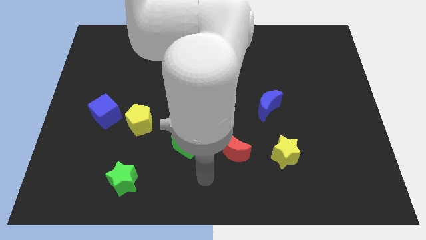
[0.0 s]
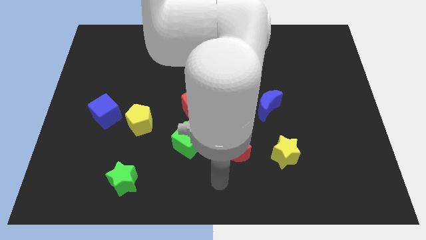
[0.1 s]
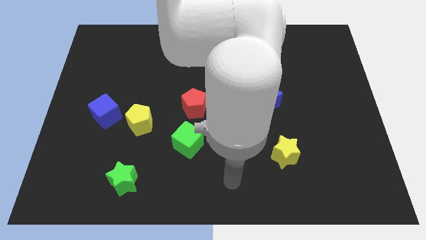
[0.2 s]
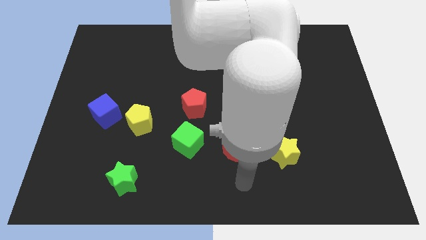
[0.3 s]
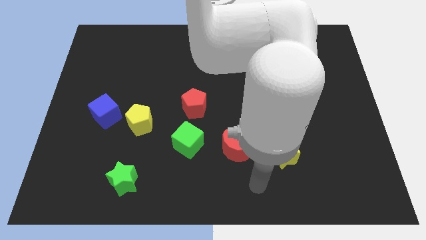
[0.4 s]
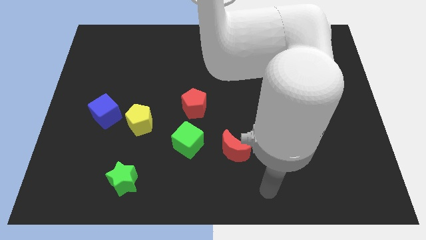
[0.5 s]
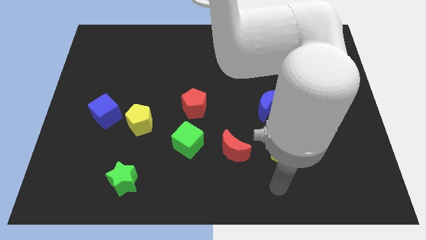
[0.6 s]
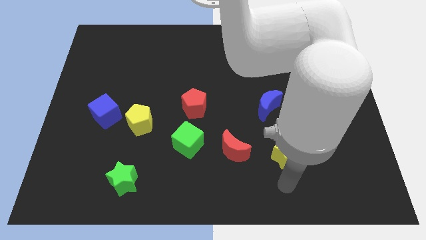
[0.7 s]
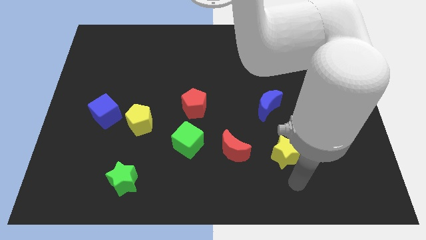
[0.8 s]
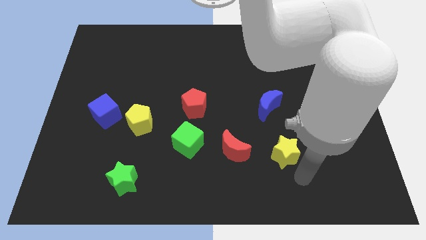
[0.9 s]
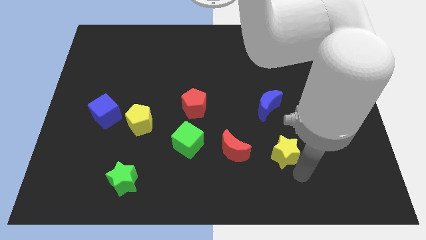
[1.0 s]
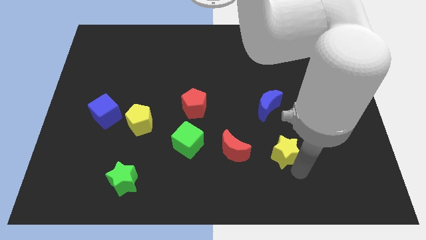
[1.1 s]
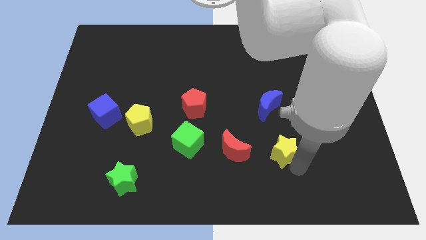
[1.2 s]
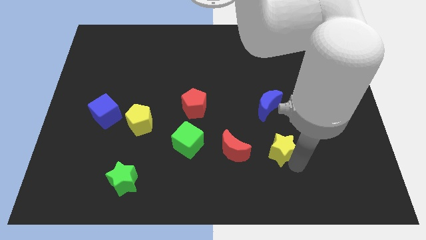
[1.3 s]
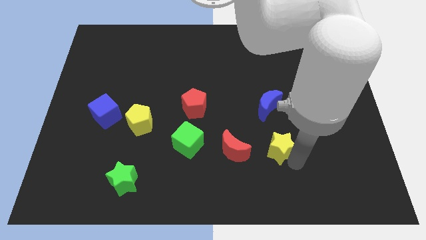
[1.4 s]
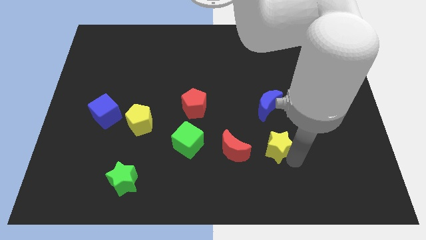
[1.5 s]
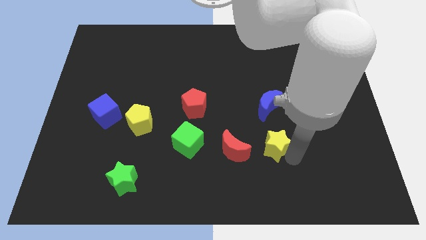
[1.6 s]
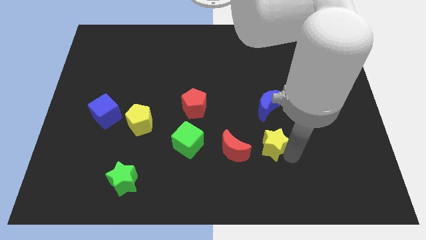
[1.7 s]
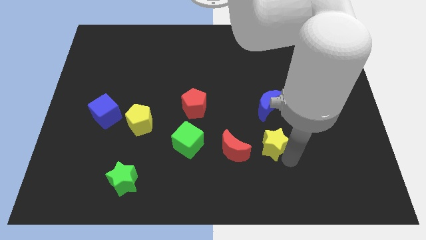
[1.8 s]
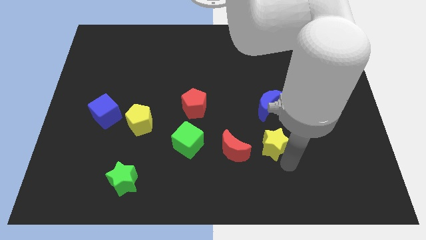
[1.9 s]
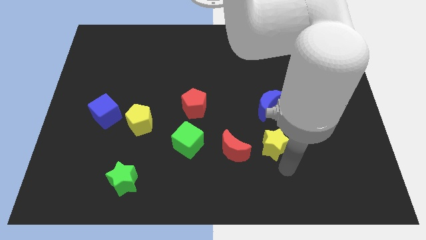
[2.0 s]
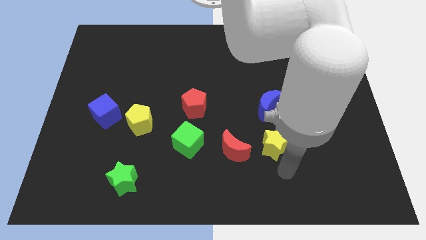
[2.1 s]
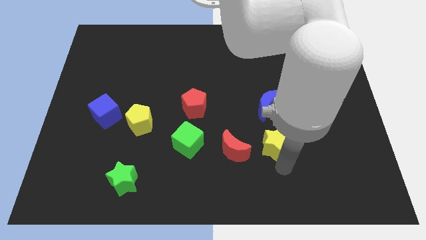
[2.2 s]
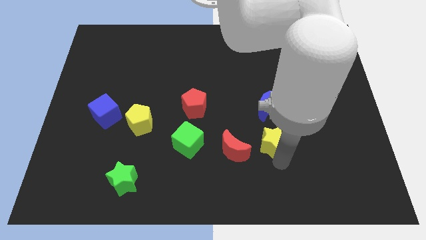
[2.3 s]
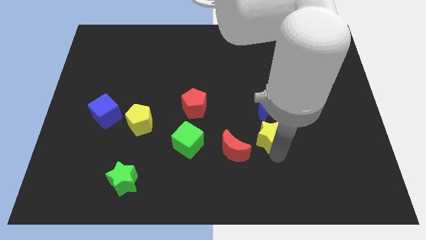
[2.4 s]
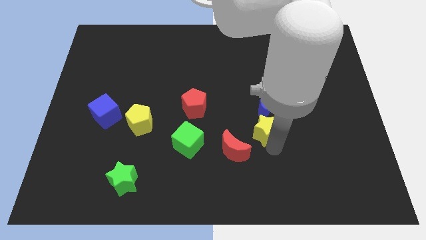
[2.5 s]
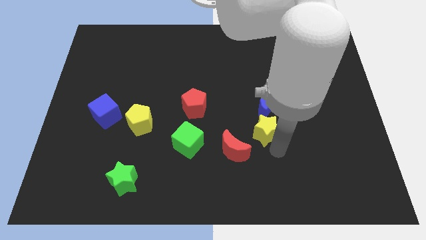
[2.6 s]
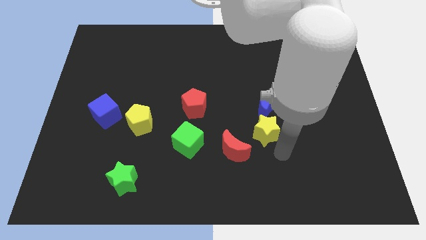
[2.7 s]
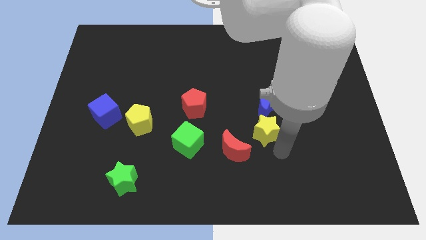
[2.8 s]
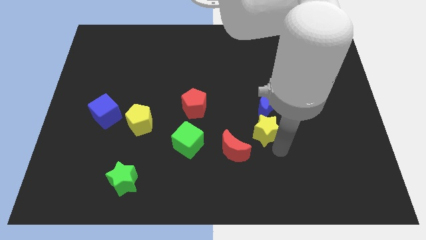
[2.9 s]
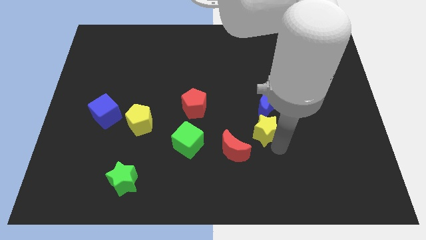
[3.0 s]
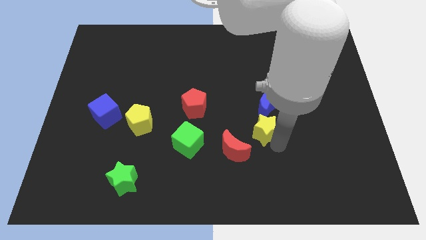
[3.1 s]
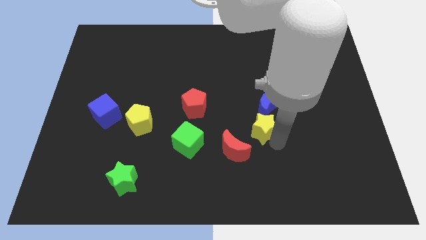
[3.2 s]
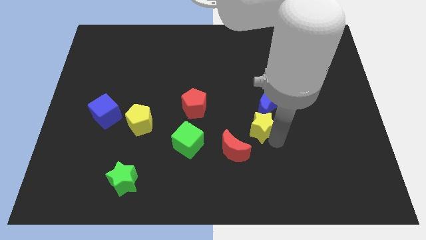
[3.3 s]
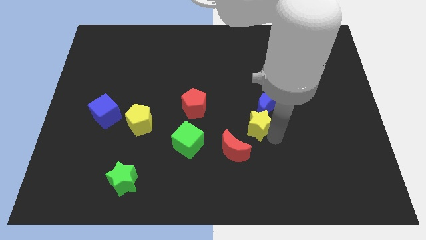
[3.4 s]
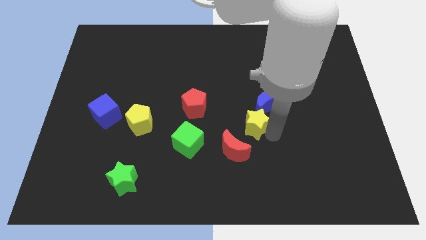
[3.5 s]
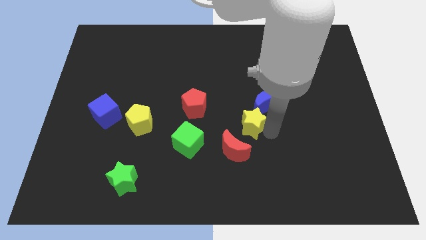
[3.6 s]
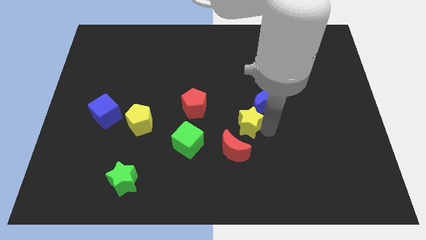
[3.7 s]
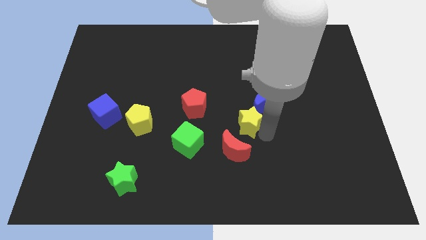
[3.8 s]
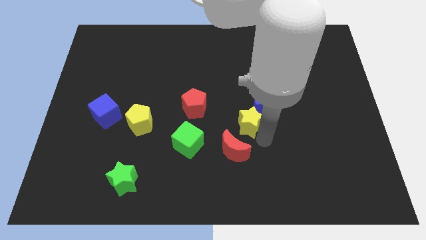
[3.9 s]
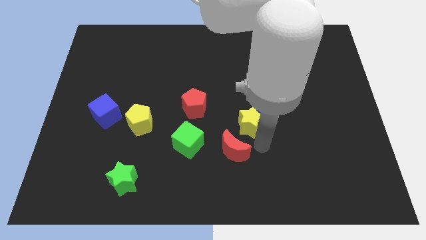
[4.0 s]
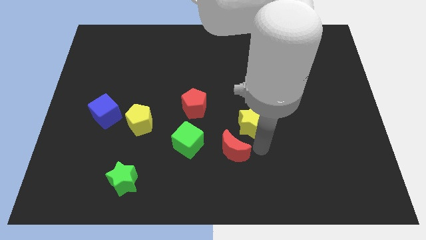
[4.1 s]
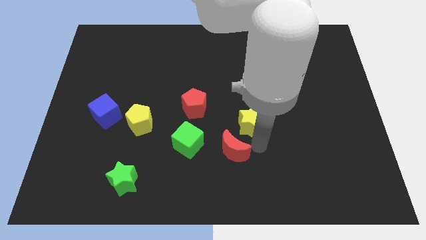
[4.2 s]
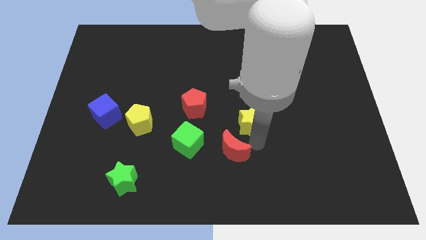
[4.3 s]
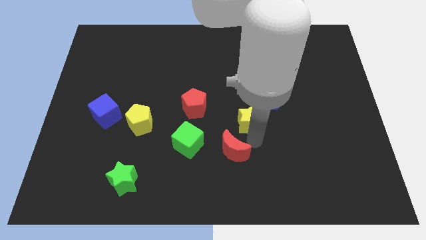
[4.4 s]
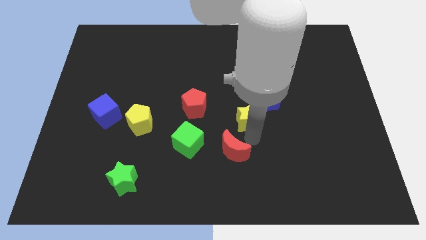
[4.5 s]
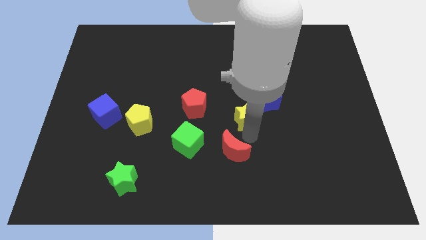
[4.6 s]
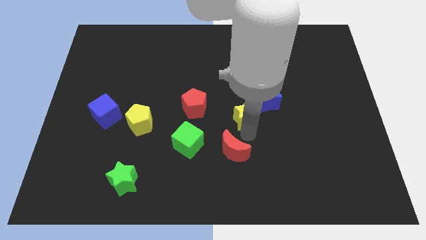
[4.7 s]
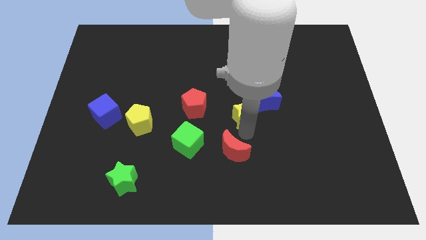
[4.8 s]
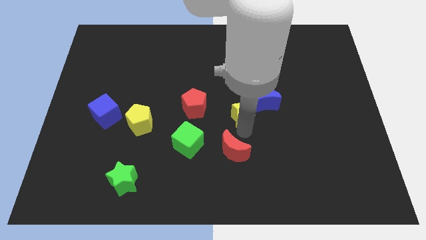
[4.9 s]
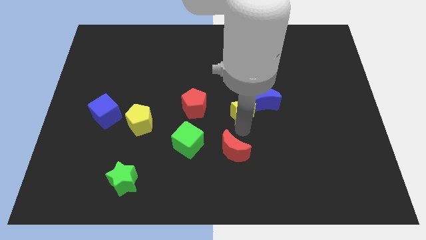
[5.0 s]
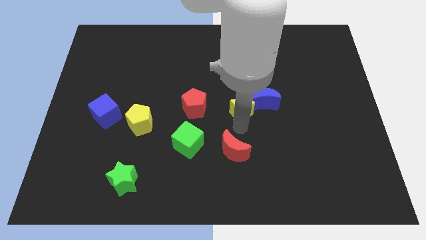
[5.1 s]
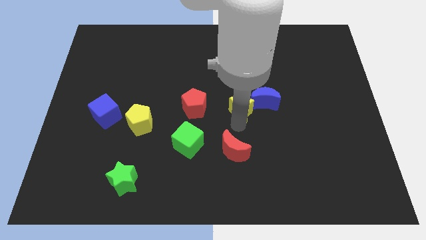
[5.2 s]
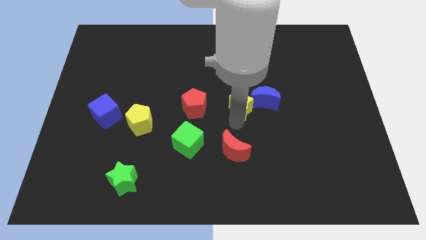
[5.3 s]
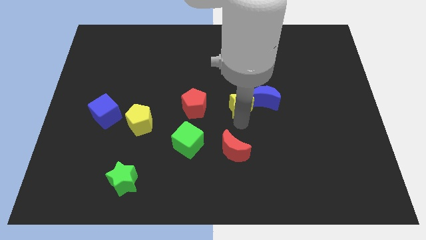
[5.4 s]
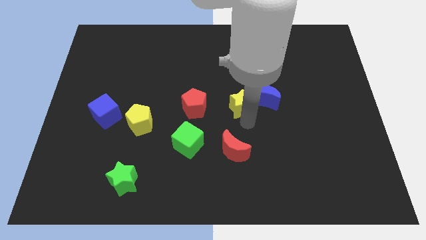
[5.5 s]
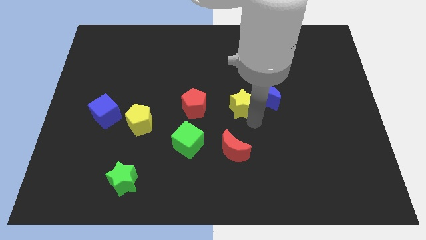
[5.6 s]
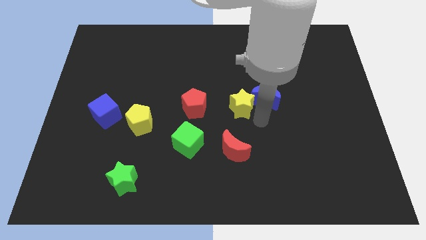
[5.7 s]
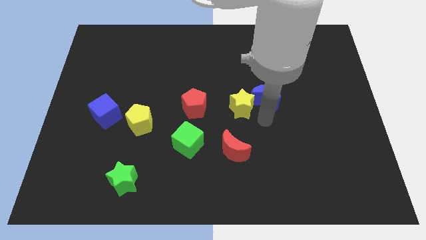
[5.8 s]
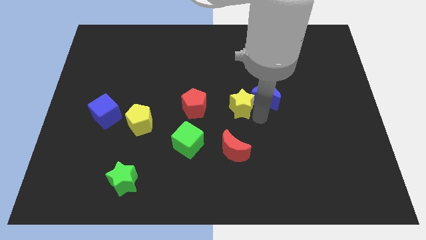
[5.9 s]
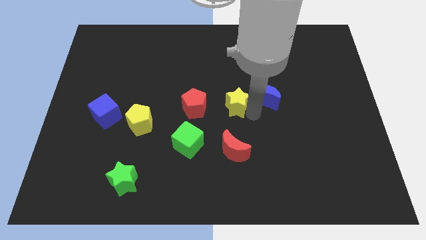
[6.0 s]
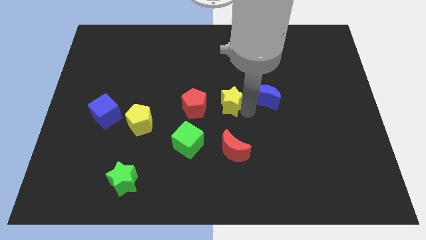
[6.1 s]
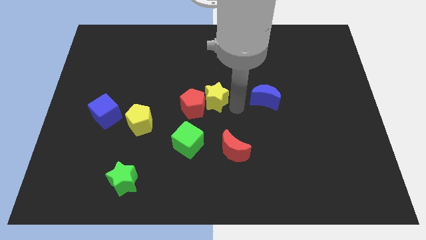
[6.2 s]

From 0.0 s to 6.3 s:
slide the yellow star upwards and left diagonally

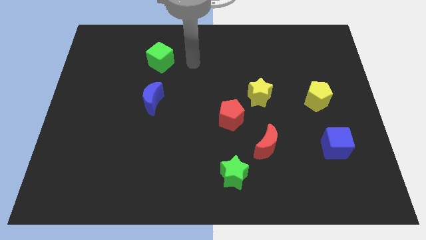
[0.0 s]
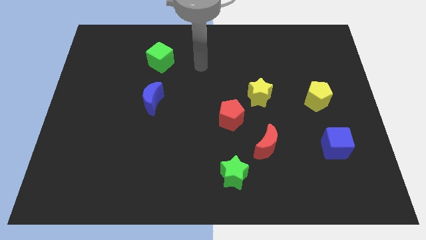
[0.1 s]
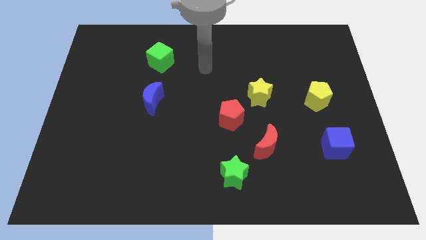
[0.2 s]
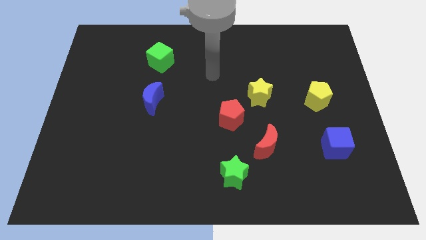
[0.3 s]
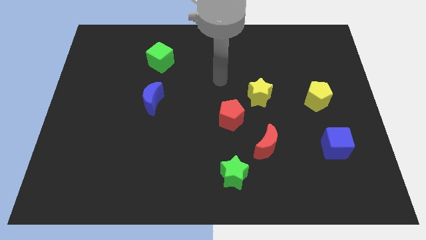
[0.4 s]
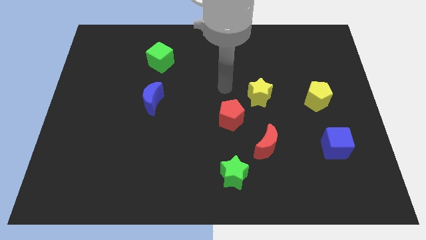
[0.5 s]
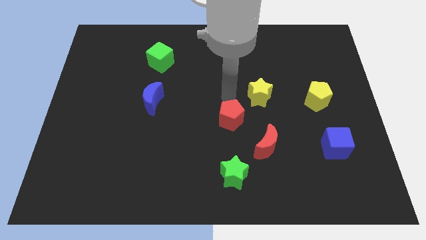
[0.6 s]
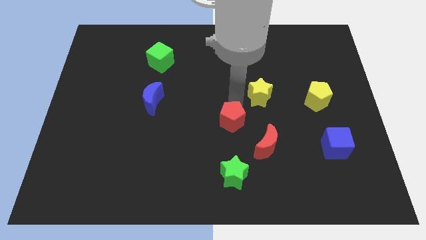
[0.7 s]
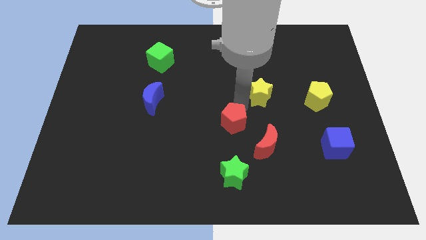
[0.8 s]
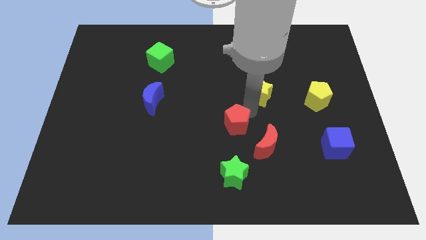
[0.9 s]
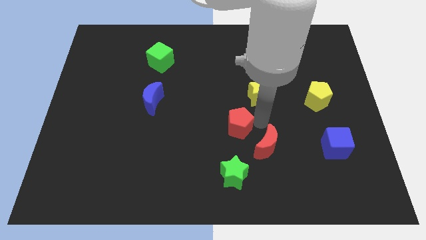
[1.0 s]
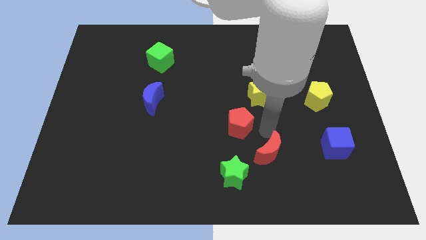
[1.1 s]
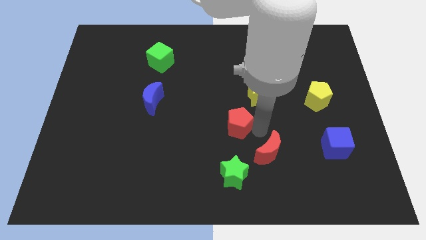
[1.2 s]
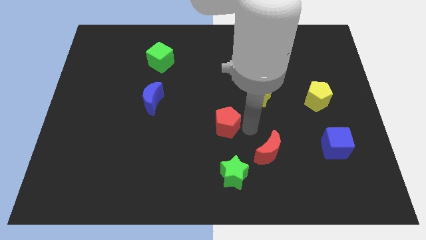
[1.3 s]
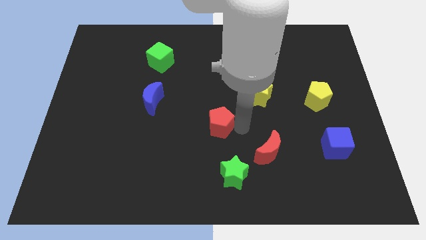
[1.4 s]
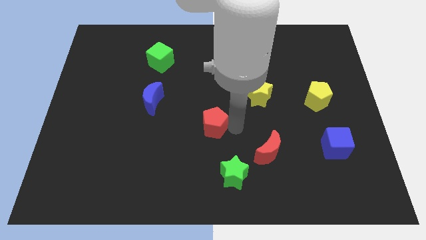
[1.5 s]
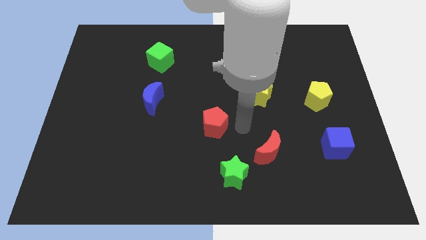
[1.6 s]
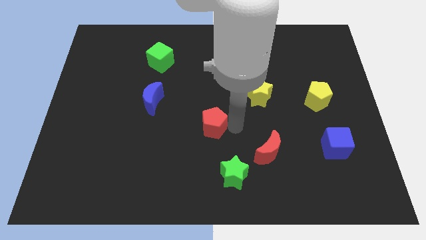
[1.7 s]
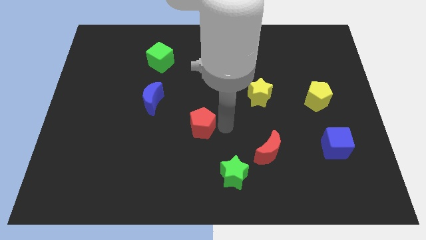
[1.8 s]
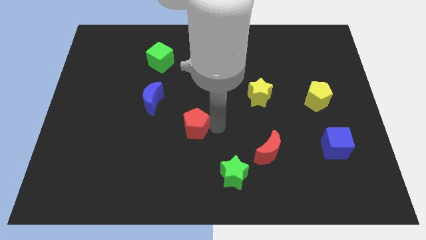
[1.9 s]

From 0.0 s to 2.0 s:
move the red pentagon a bit to the left
